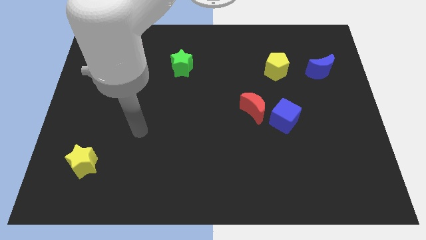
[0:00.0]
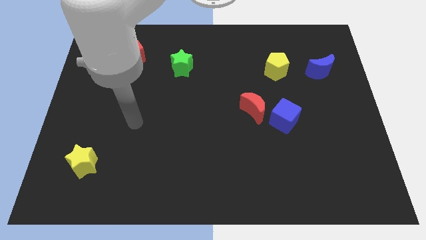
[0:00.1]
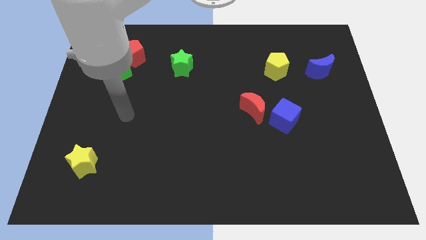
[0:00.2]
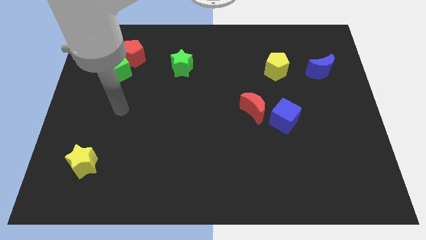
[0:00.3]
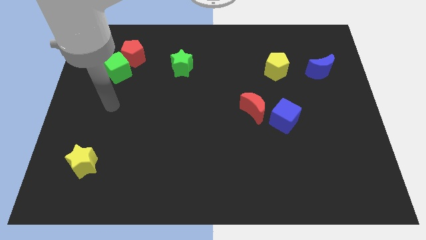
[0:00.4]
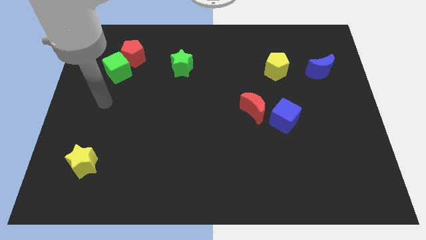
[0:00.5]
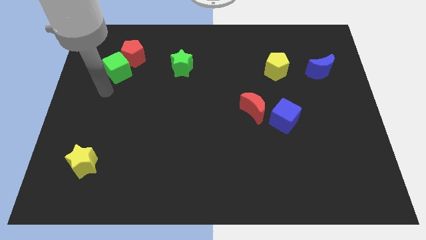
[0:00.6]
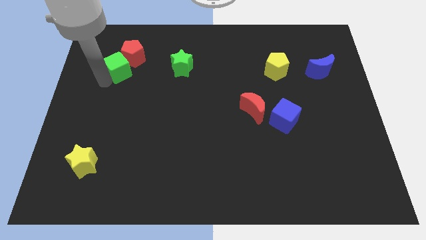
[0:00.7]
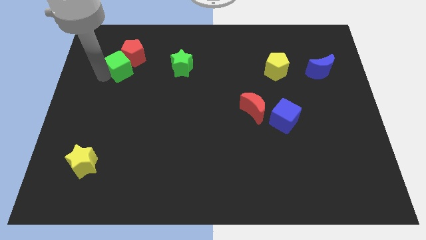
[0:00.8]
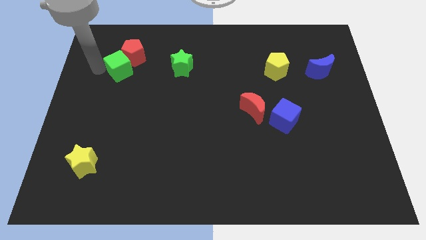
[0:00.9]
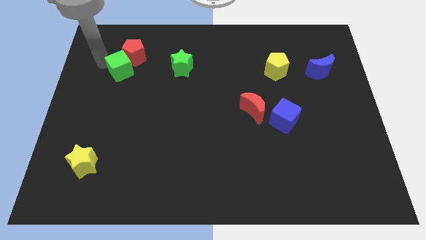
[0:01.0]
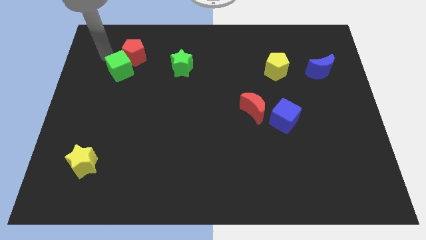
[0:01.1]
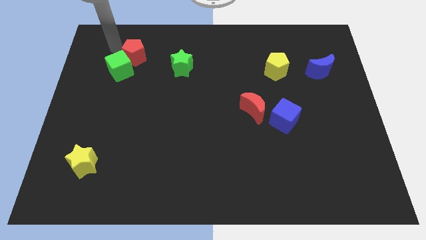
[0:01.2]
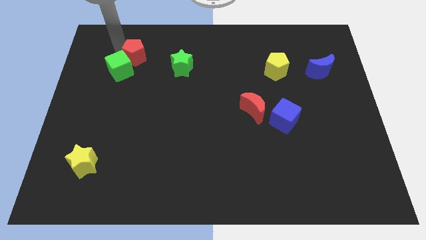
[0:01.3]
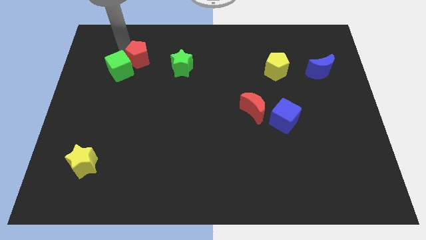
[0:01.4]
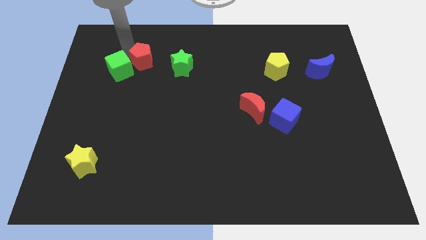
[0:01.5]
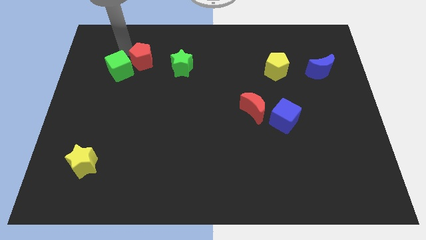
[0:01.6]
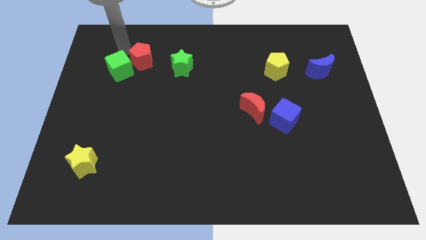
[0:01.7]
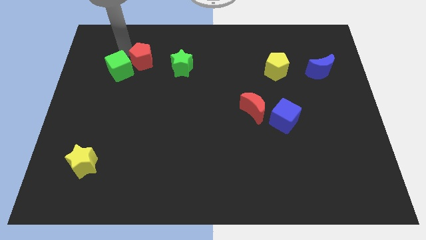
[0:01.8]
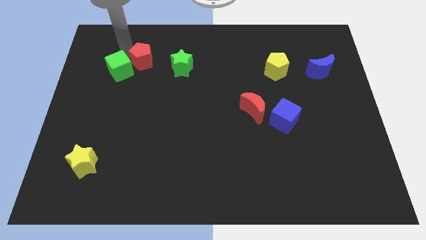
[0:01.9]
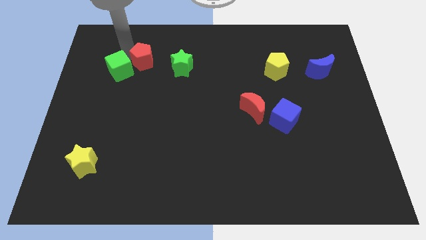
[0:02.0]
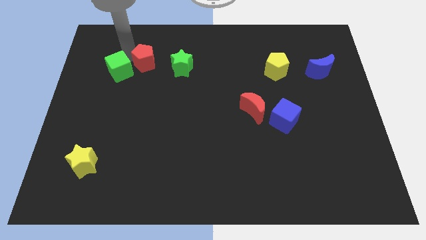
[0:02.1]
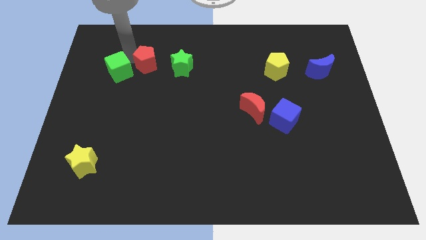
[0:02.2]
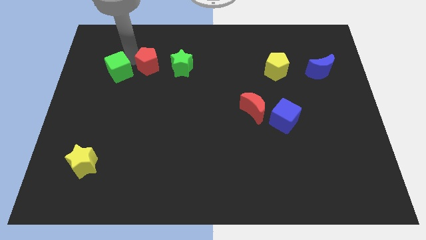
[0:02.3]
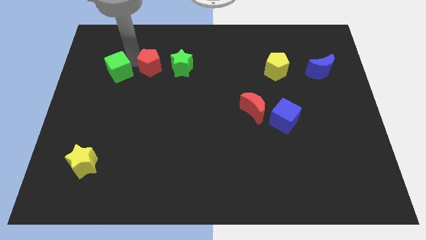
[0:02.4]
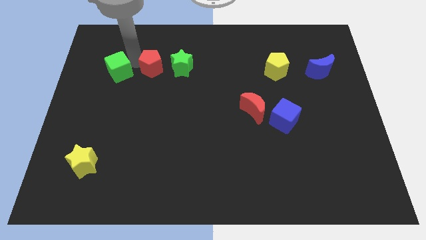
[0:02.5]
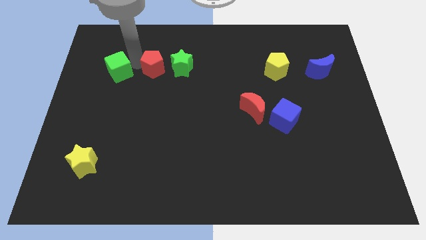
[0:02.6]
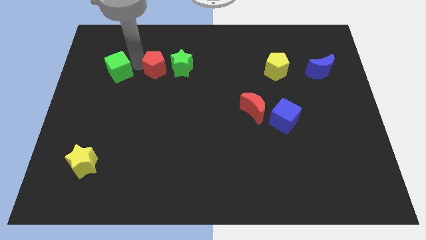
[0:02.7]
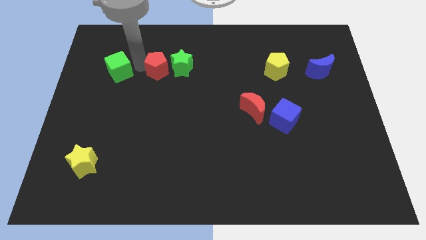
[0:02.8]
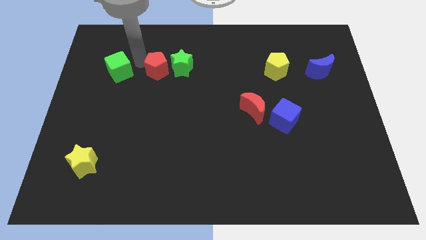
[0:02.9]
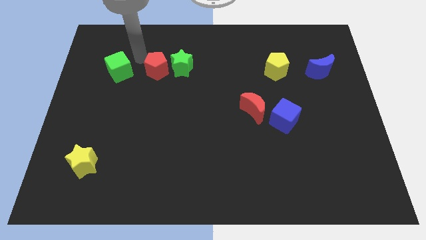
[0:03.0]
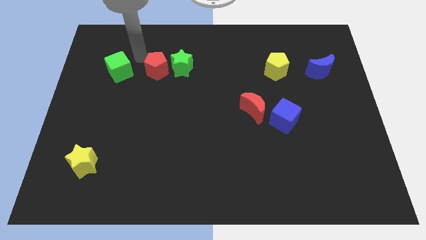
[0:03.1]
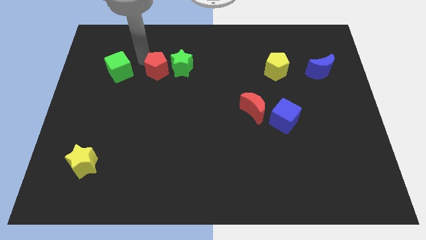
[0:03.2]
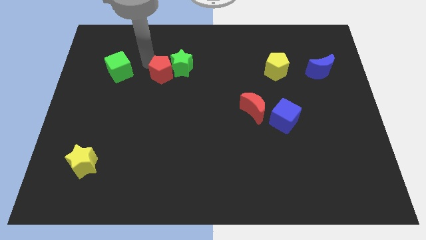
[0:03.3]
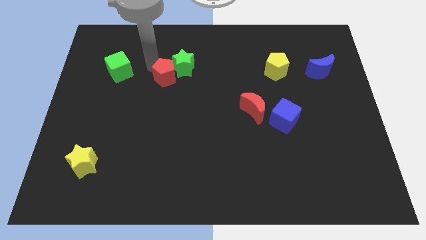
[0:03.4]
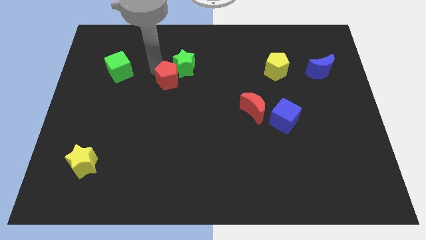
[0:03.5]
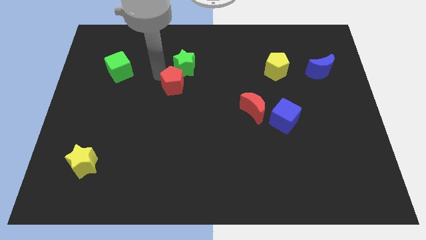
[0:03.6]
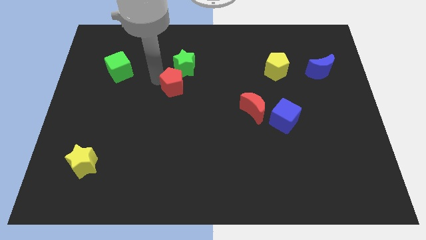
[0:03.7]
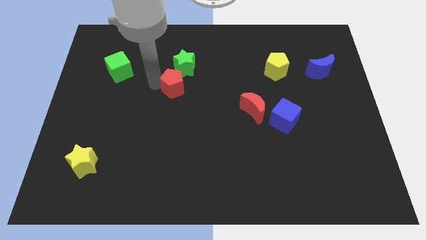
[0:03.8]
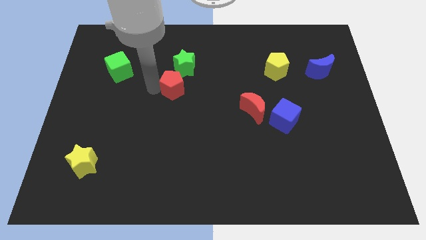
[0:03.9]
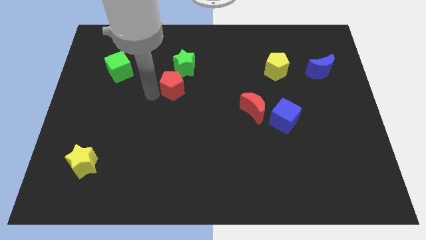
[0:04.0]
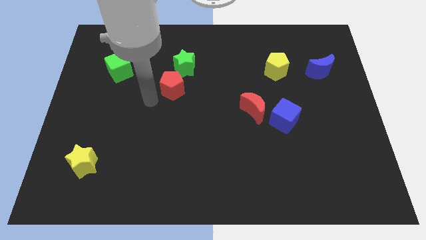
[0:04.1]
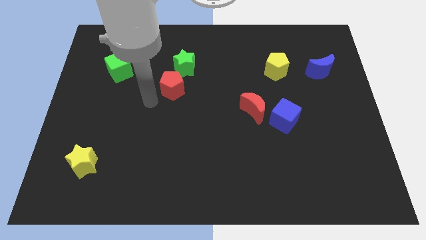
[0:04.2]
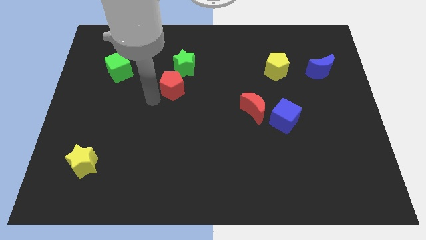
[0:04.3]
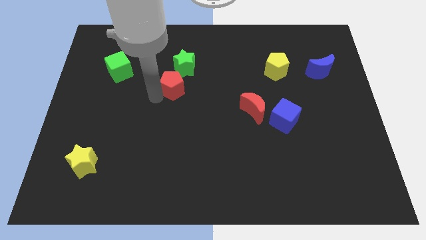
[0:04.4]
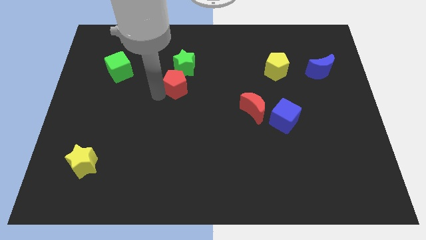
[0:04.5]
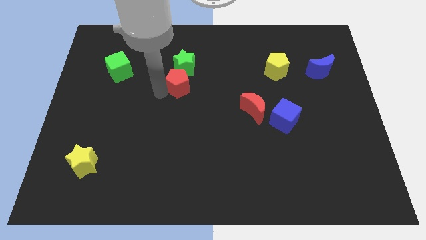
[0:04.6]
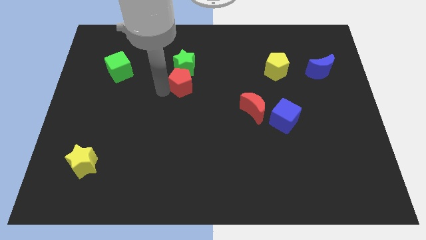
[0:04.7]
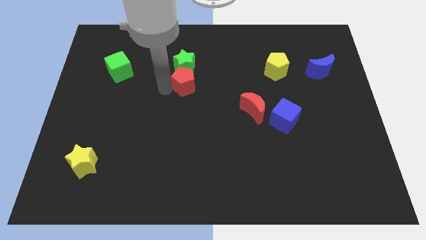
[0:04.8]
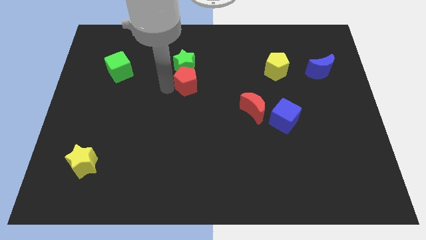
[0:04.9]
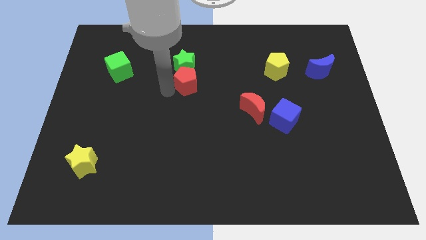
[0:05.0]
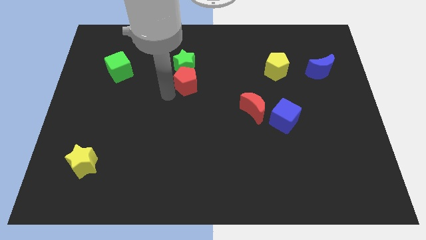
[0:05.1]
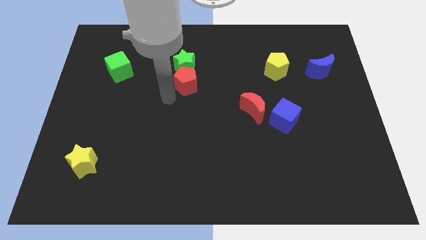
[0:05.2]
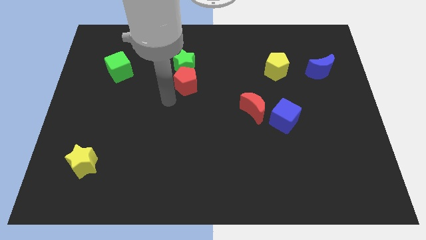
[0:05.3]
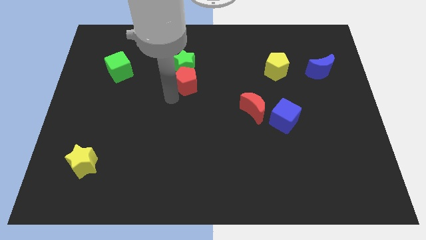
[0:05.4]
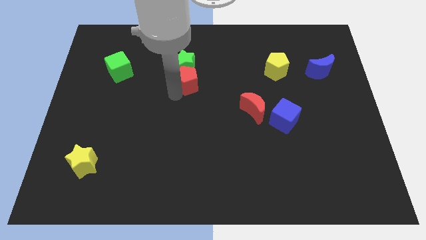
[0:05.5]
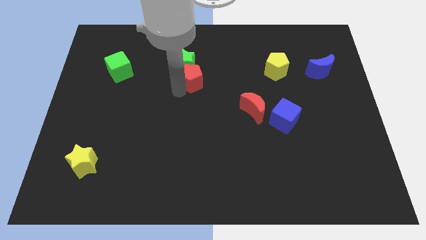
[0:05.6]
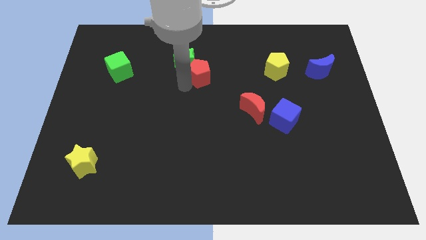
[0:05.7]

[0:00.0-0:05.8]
put the red pentagon to the right side of the green star

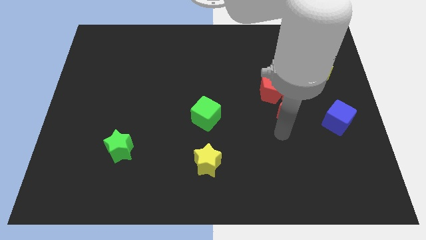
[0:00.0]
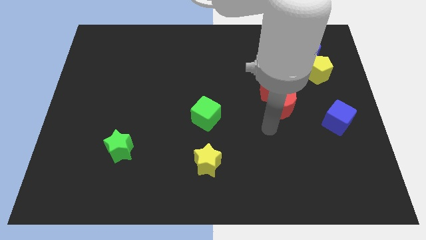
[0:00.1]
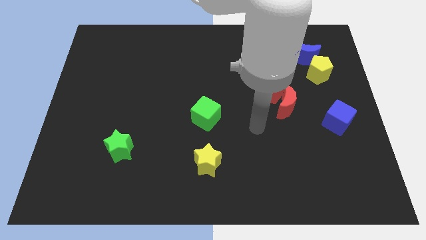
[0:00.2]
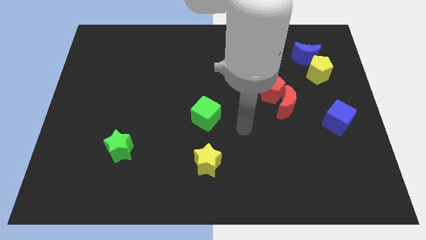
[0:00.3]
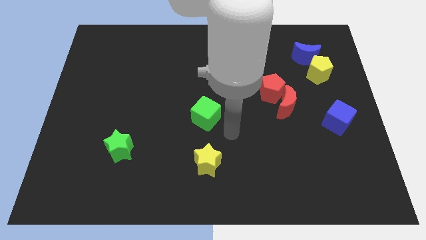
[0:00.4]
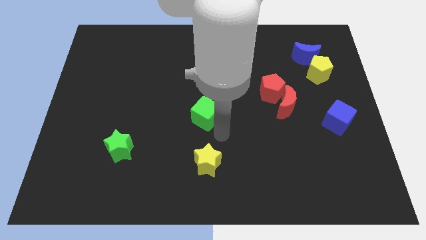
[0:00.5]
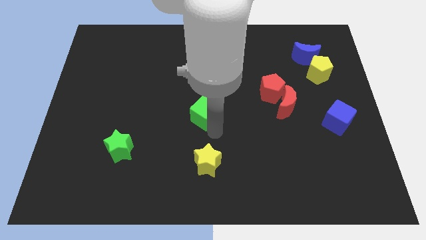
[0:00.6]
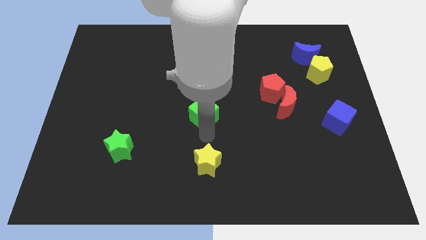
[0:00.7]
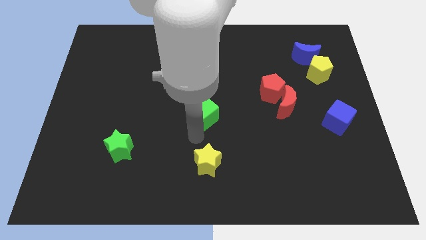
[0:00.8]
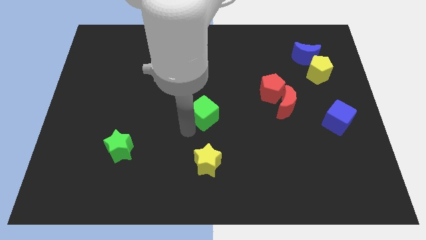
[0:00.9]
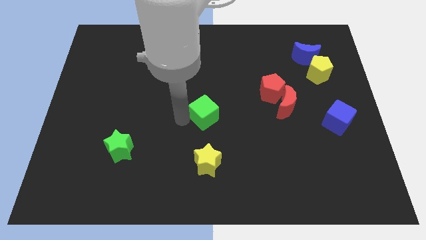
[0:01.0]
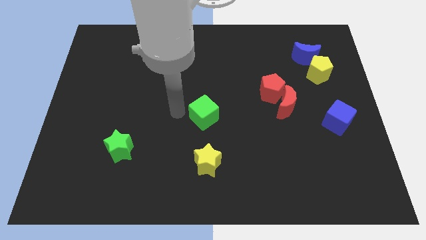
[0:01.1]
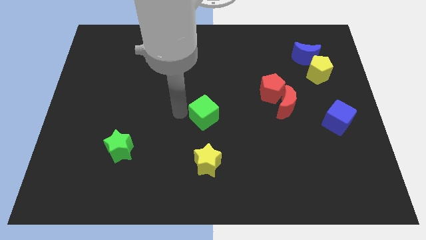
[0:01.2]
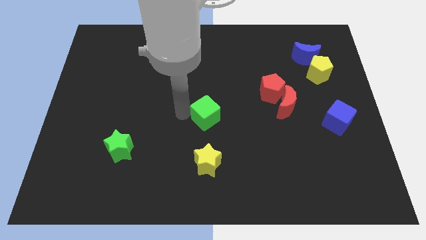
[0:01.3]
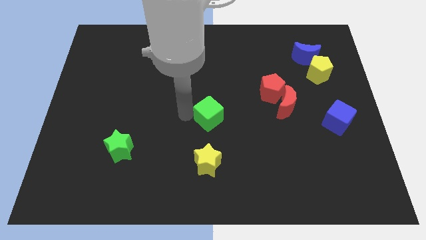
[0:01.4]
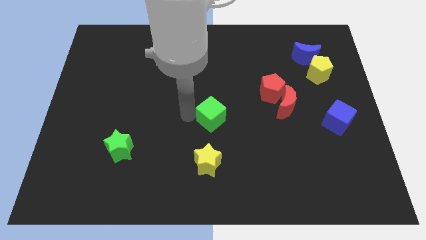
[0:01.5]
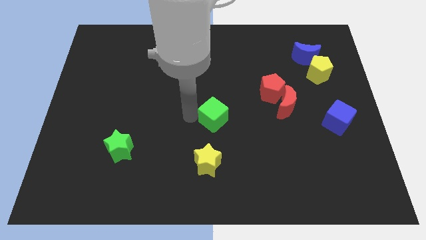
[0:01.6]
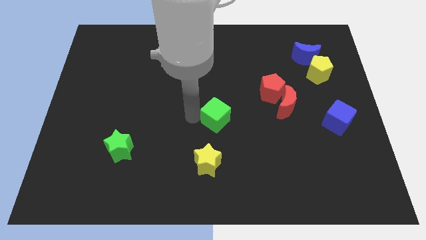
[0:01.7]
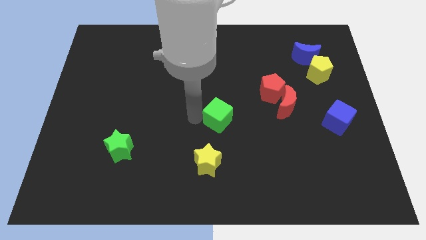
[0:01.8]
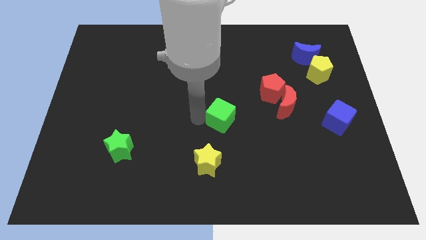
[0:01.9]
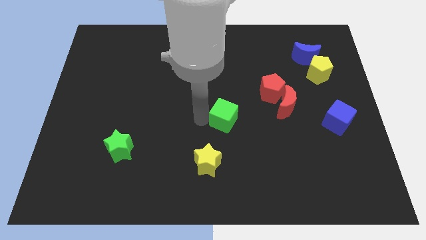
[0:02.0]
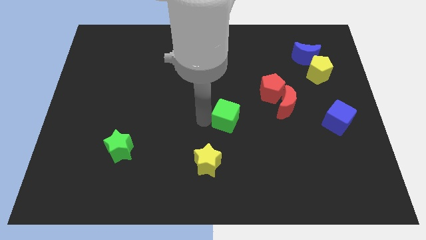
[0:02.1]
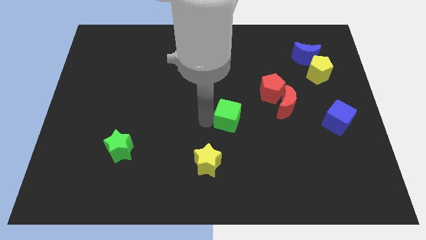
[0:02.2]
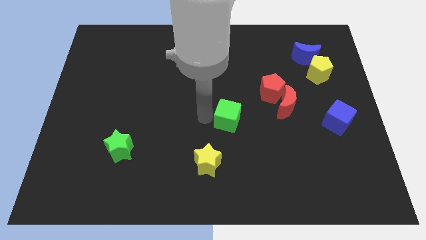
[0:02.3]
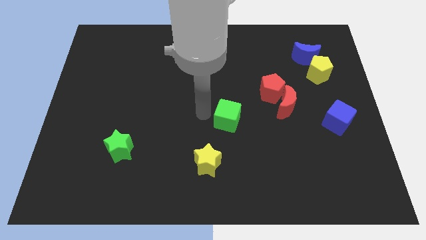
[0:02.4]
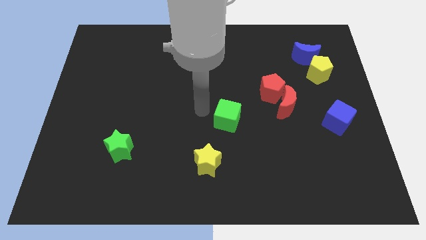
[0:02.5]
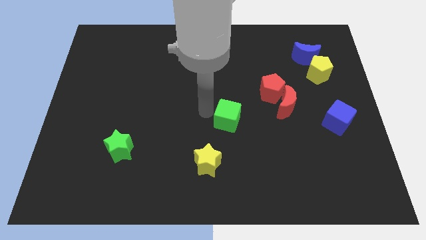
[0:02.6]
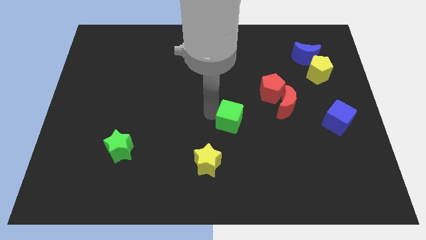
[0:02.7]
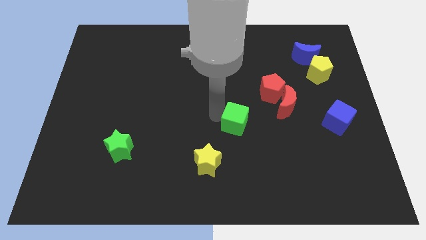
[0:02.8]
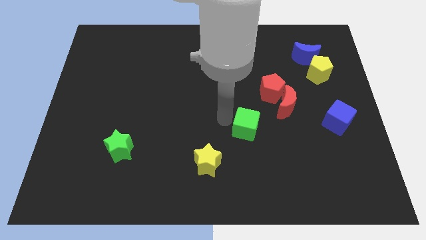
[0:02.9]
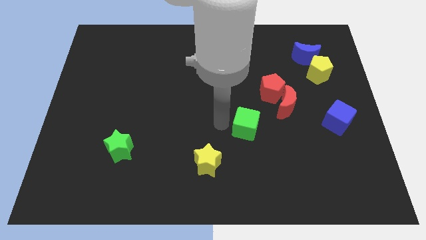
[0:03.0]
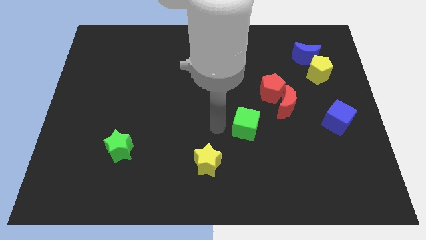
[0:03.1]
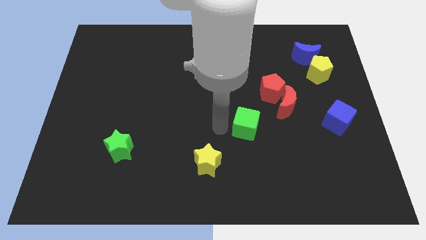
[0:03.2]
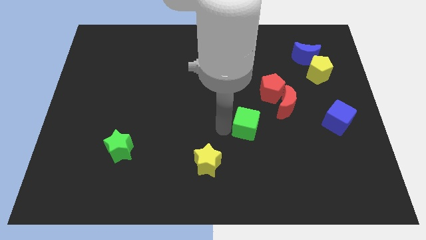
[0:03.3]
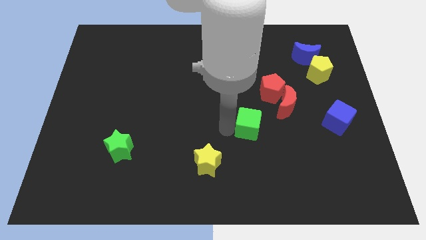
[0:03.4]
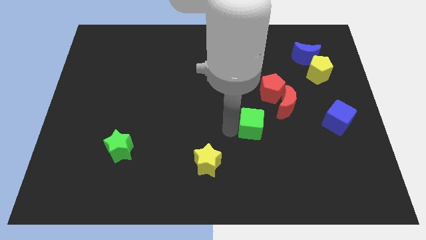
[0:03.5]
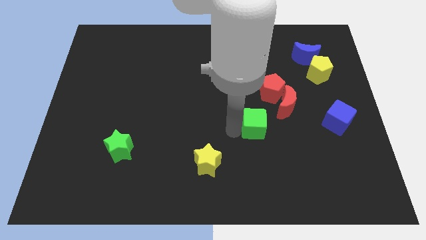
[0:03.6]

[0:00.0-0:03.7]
put the green cube below the red pentagon
